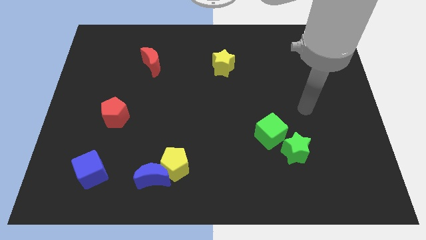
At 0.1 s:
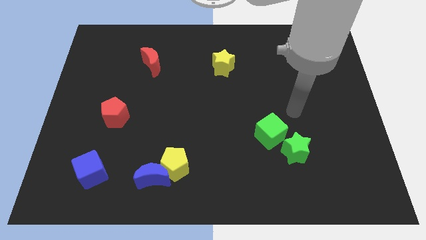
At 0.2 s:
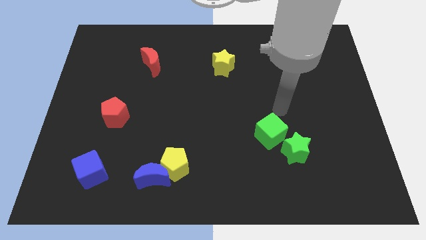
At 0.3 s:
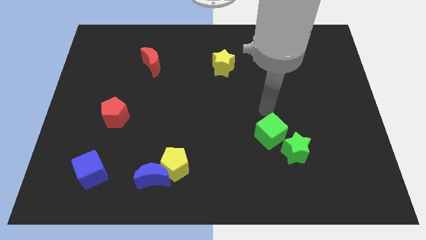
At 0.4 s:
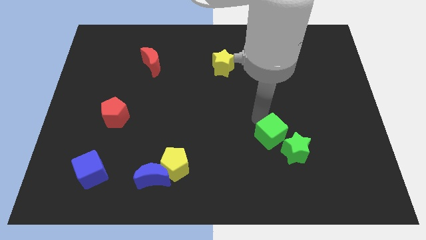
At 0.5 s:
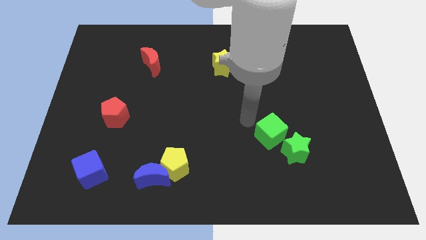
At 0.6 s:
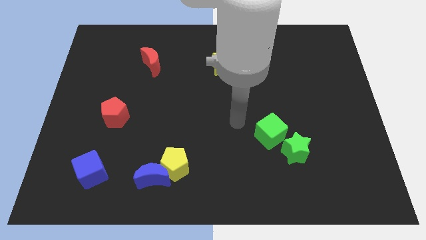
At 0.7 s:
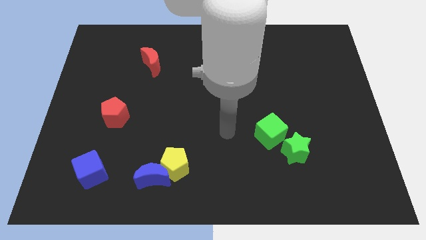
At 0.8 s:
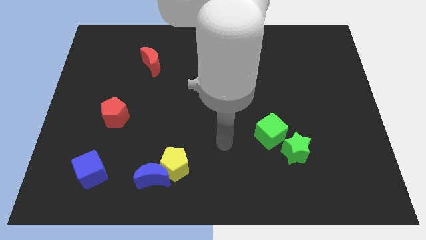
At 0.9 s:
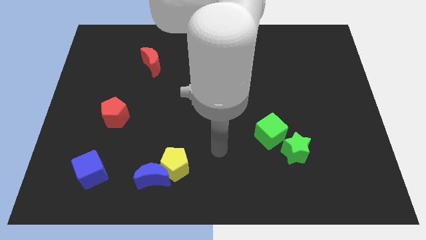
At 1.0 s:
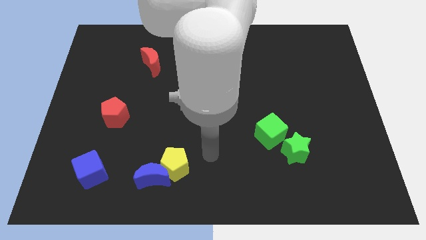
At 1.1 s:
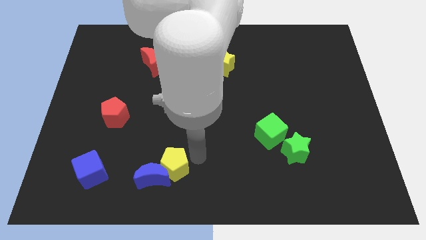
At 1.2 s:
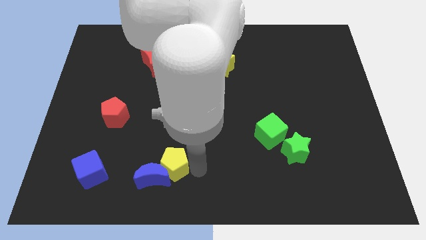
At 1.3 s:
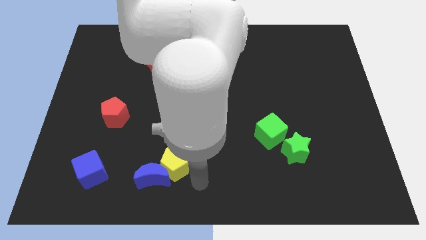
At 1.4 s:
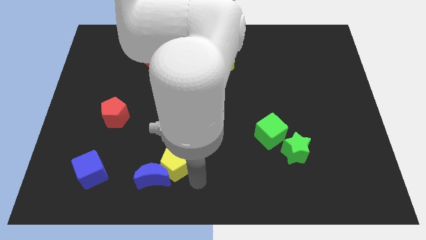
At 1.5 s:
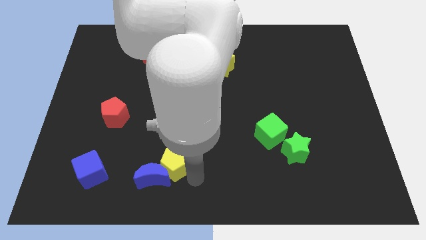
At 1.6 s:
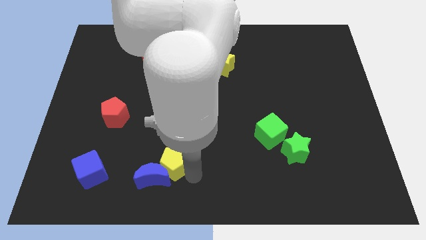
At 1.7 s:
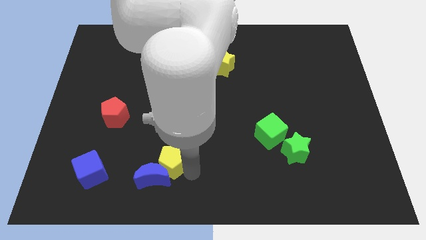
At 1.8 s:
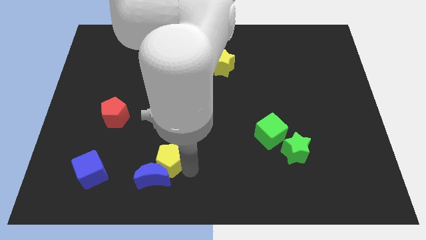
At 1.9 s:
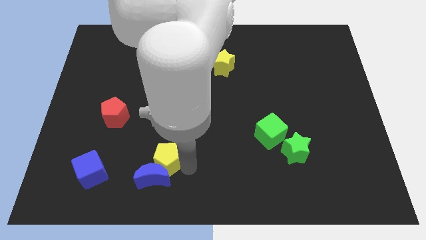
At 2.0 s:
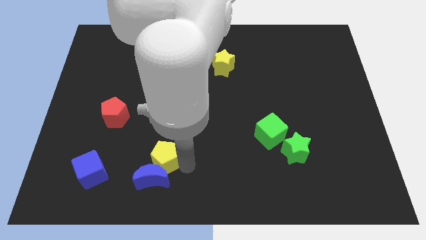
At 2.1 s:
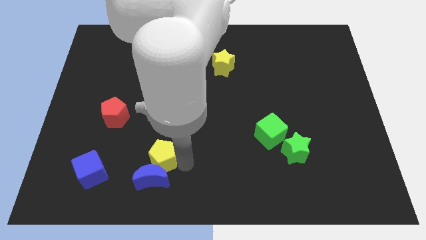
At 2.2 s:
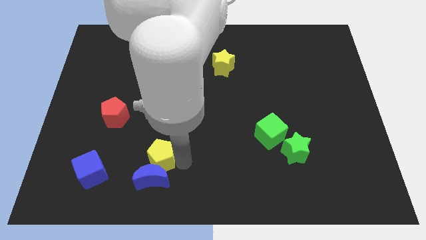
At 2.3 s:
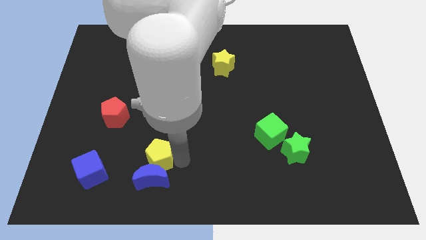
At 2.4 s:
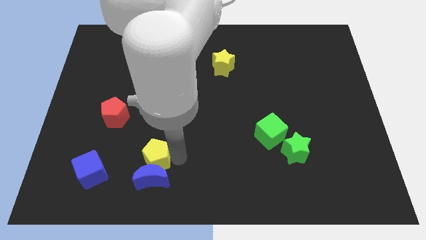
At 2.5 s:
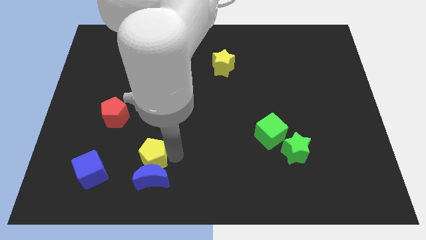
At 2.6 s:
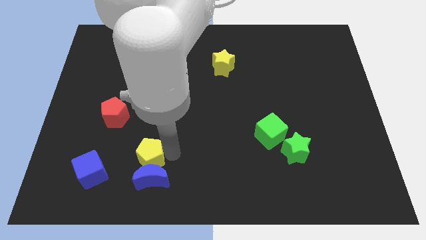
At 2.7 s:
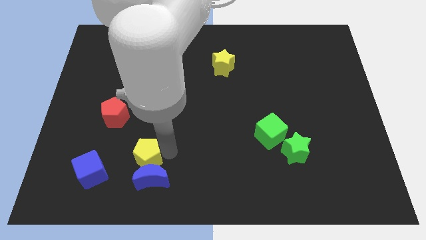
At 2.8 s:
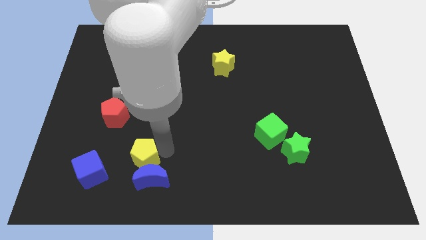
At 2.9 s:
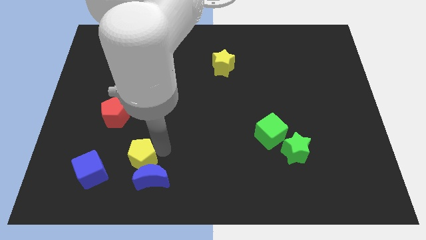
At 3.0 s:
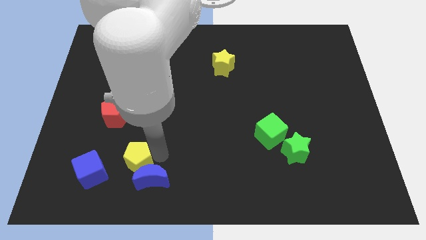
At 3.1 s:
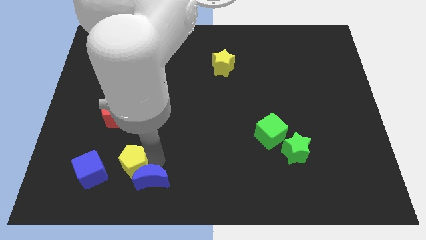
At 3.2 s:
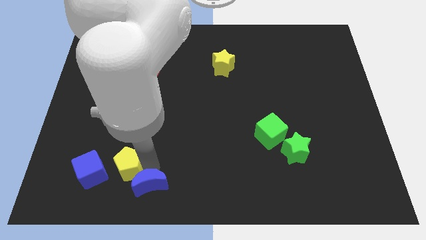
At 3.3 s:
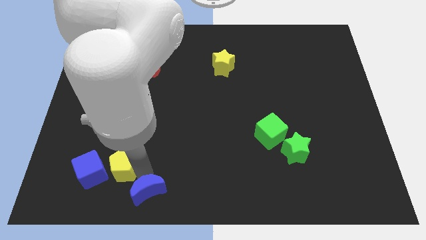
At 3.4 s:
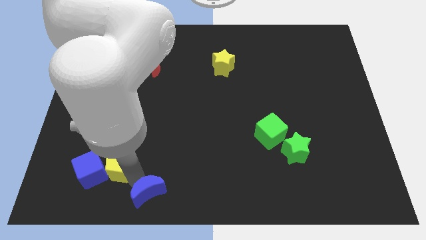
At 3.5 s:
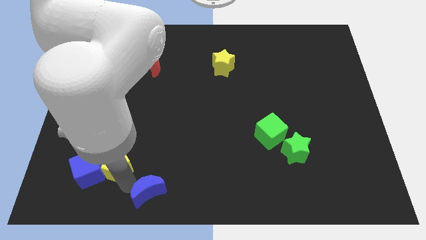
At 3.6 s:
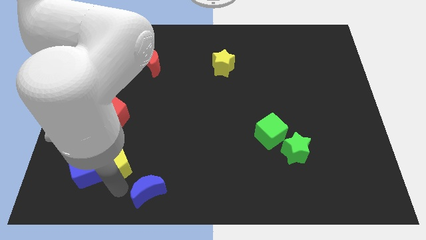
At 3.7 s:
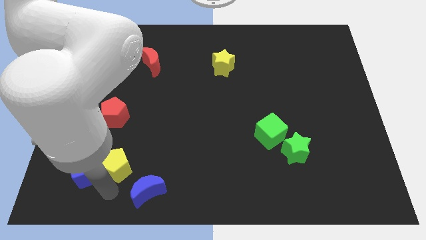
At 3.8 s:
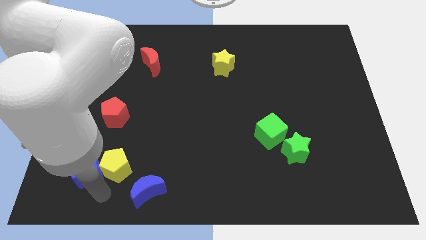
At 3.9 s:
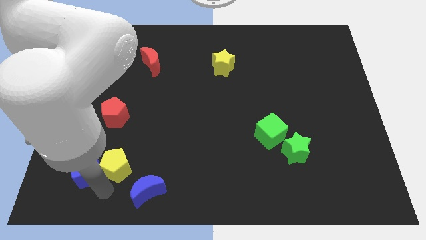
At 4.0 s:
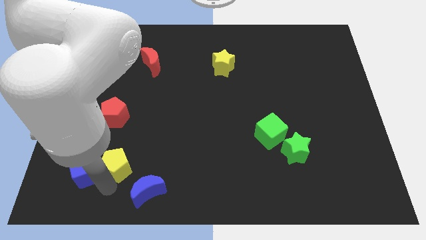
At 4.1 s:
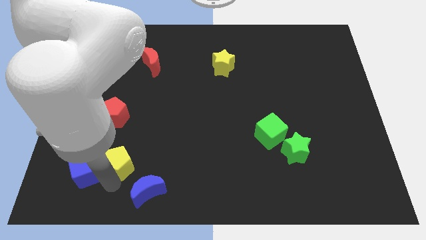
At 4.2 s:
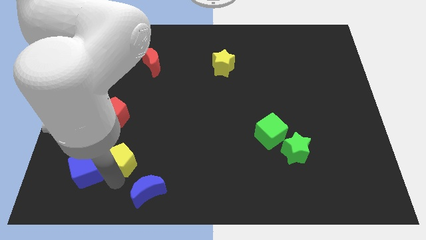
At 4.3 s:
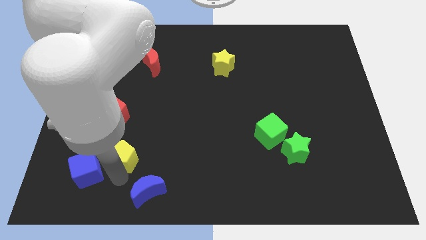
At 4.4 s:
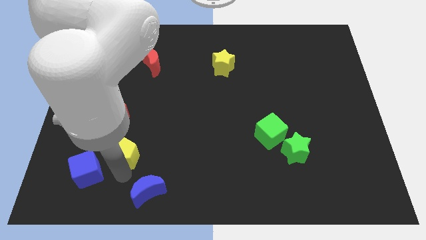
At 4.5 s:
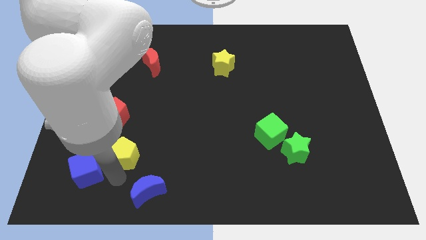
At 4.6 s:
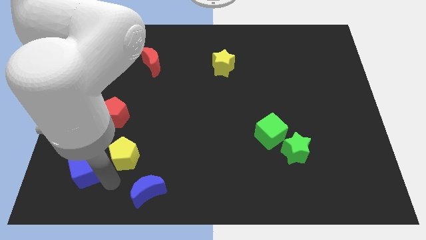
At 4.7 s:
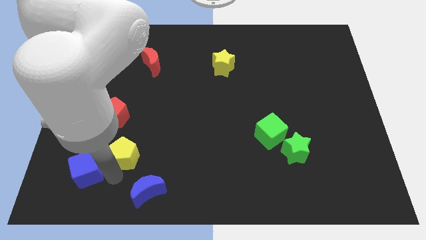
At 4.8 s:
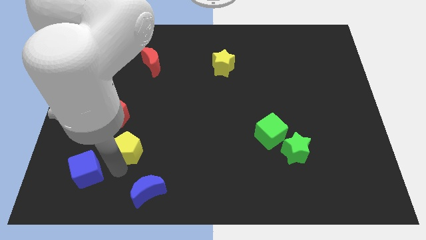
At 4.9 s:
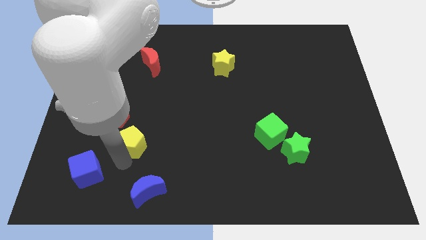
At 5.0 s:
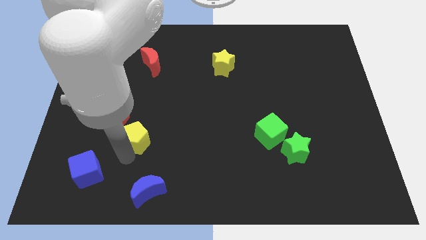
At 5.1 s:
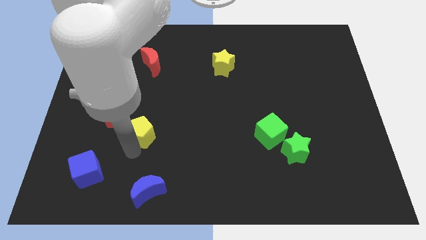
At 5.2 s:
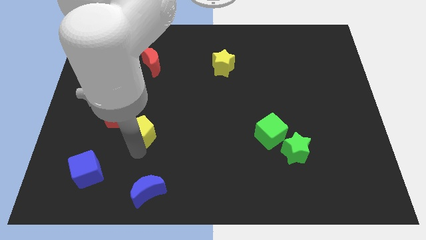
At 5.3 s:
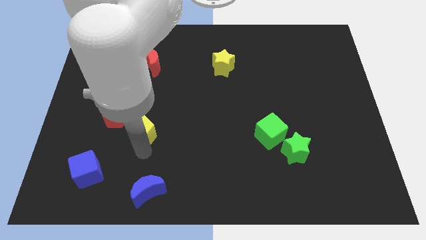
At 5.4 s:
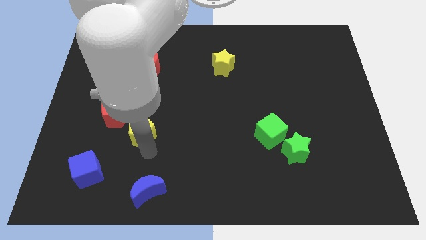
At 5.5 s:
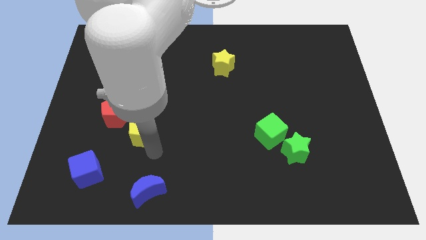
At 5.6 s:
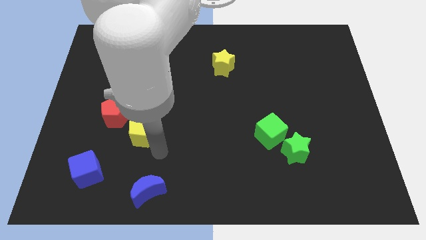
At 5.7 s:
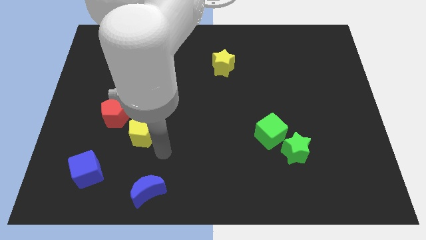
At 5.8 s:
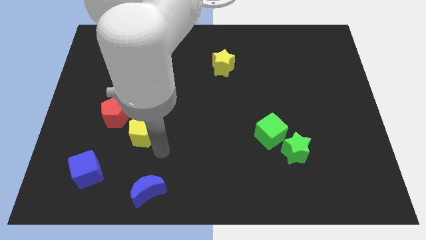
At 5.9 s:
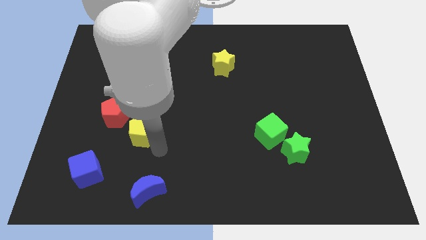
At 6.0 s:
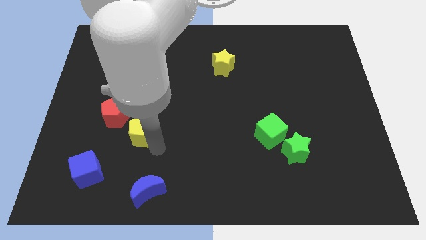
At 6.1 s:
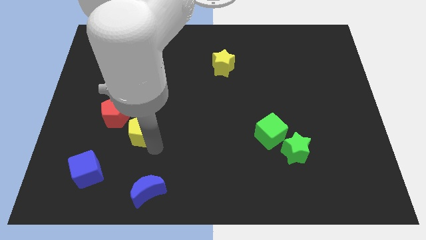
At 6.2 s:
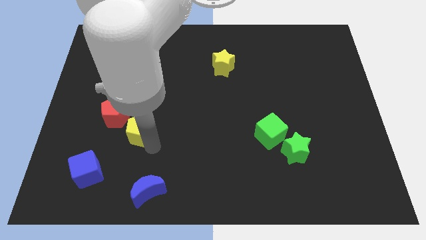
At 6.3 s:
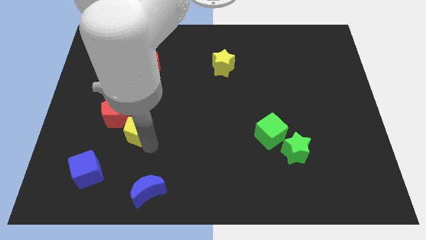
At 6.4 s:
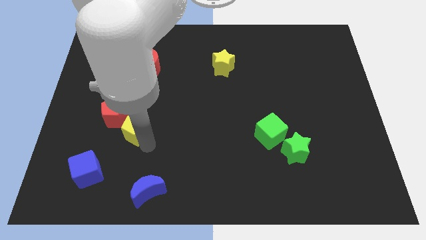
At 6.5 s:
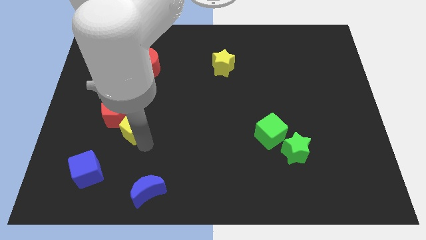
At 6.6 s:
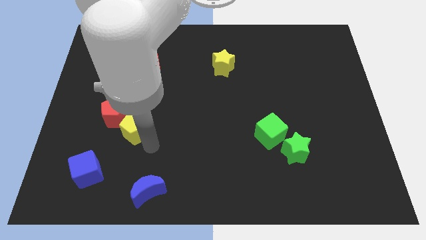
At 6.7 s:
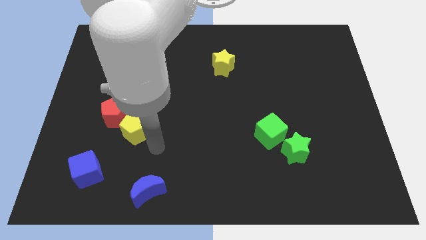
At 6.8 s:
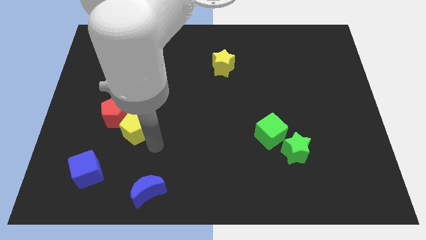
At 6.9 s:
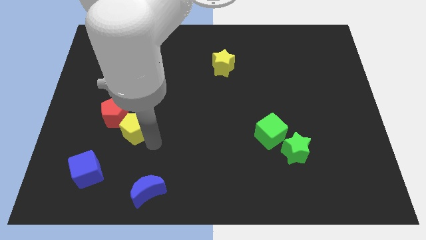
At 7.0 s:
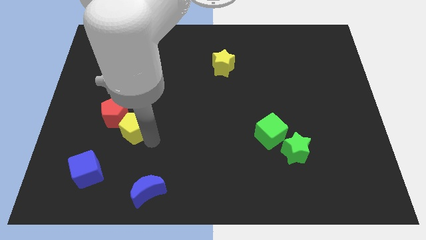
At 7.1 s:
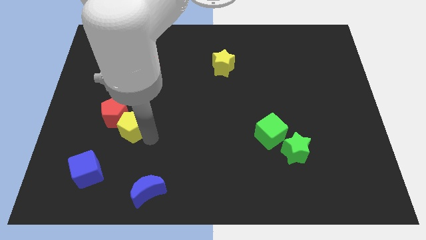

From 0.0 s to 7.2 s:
put the yellow pentagon next to the red pentagon
